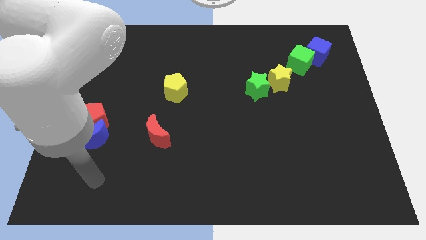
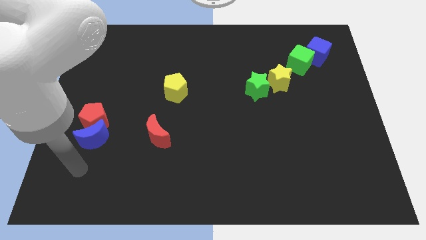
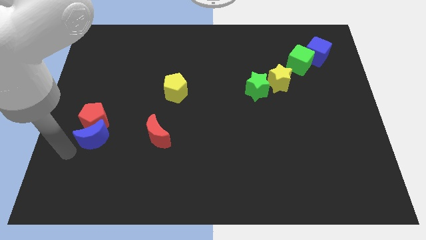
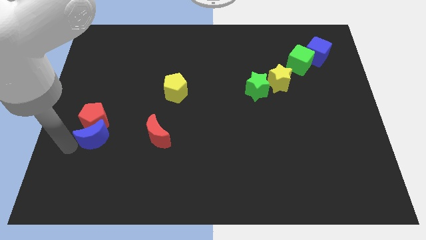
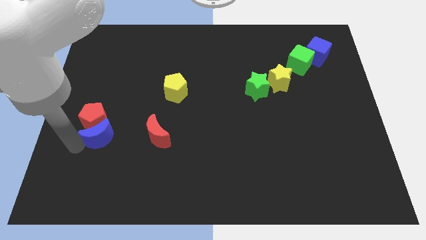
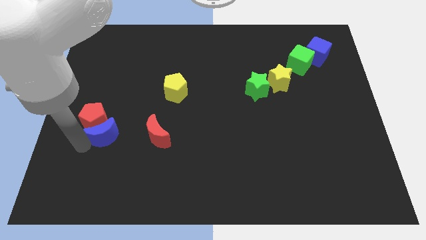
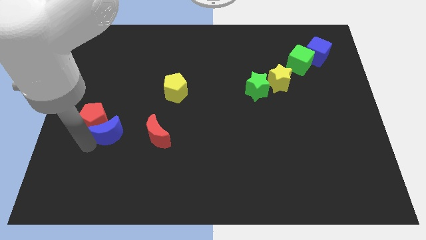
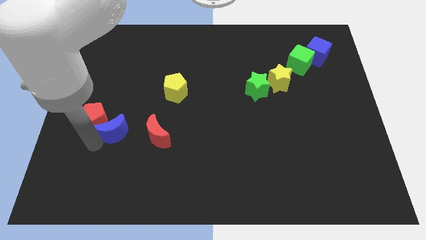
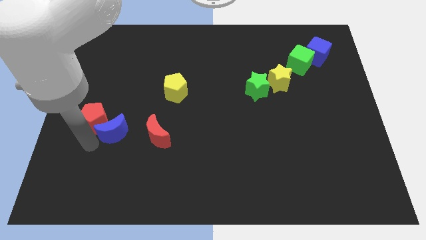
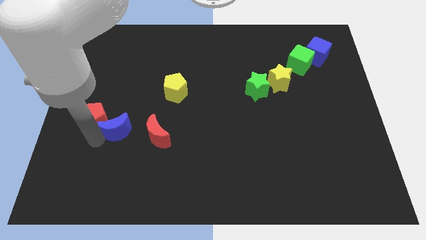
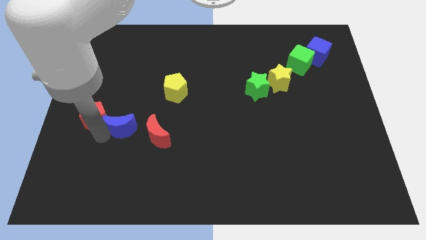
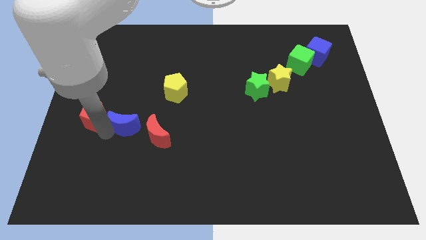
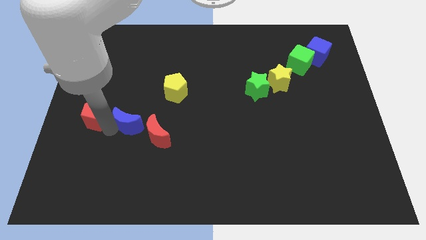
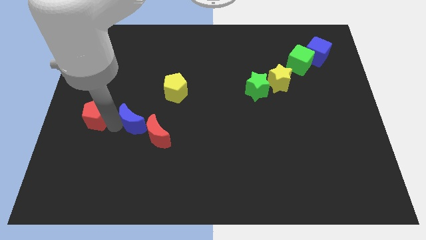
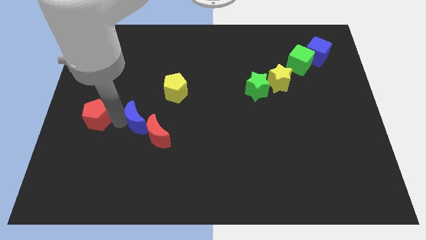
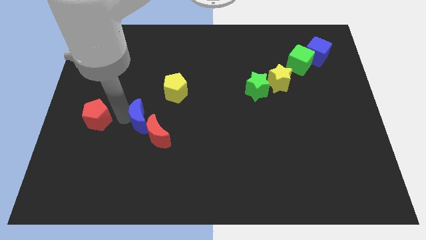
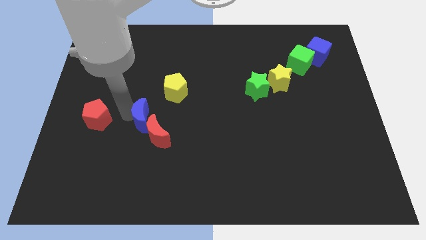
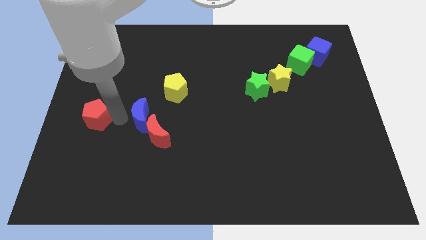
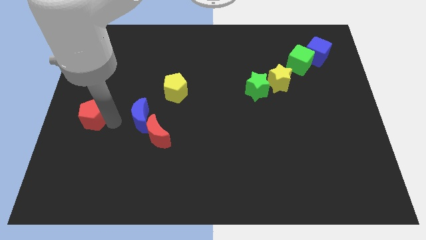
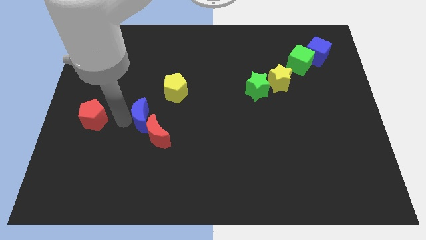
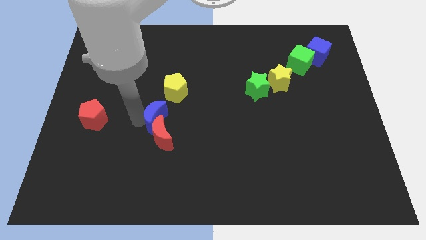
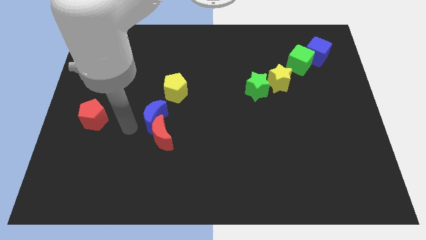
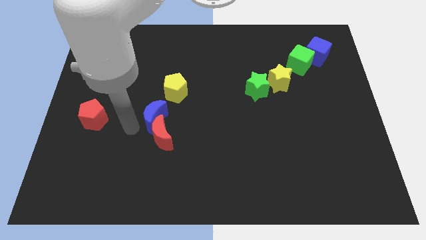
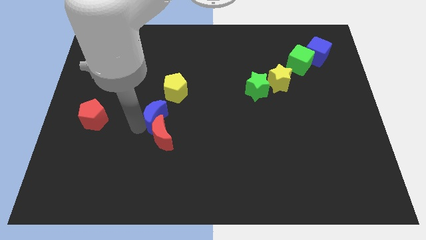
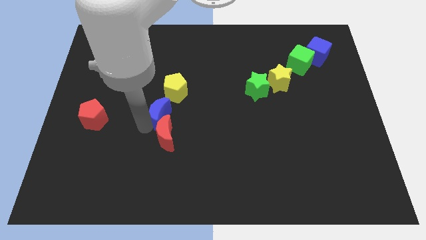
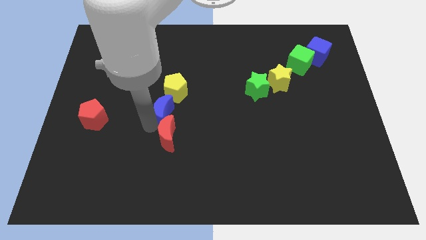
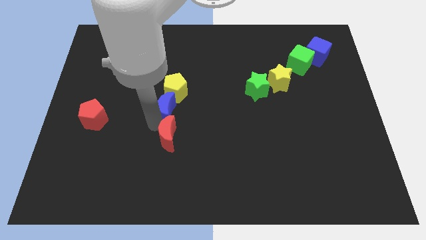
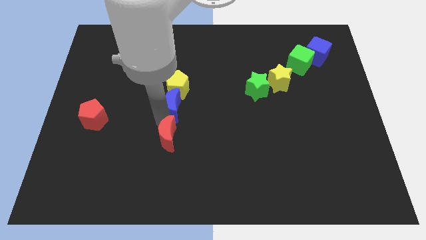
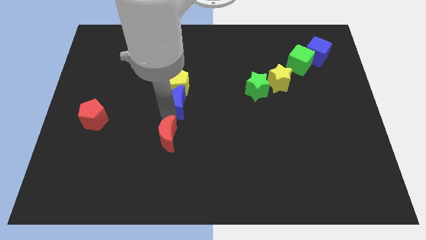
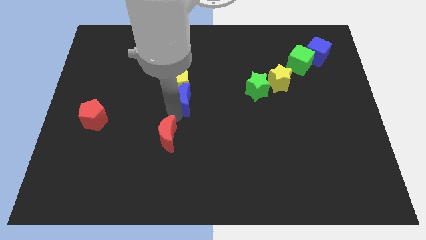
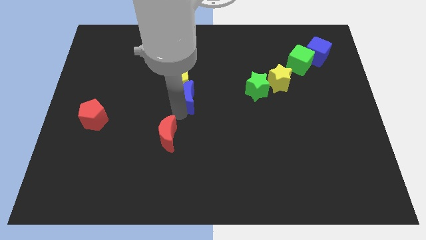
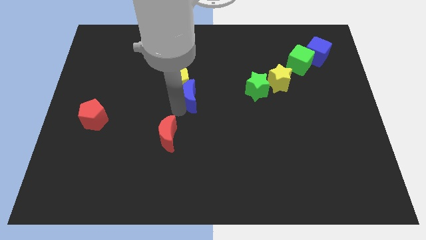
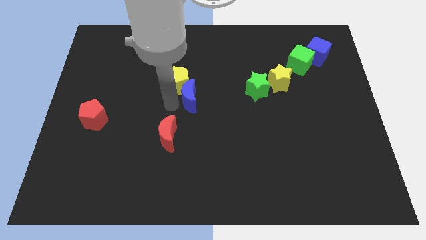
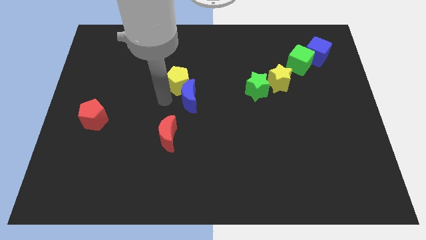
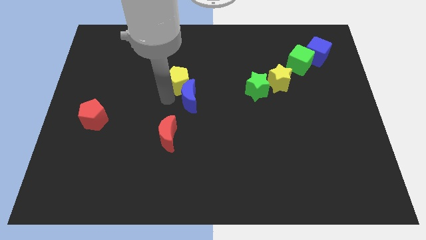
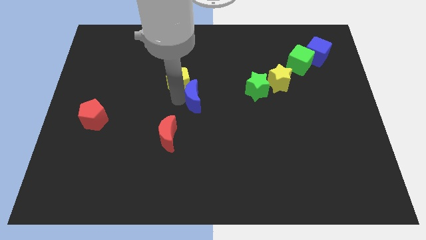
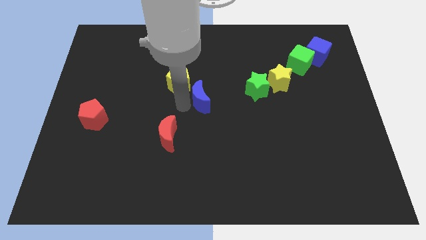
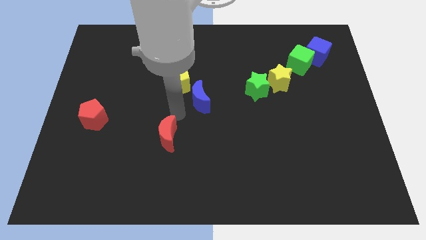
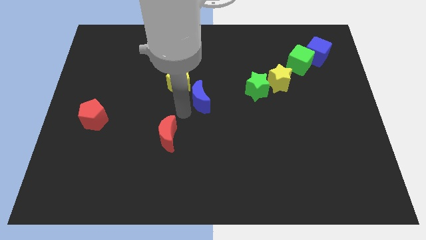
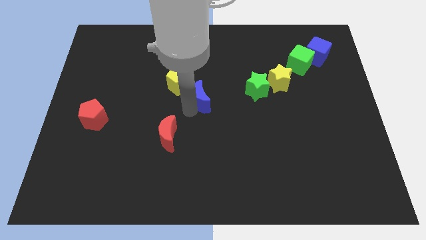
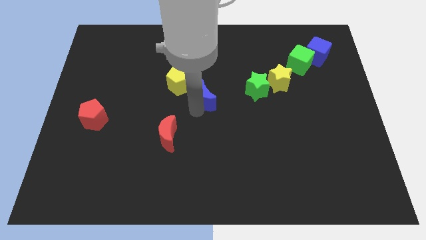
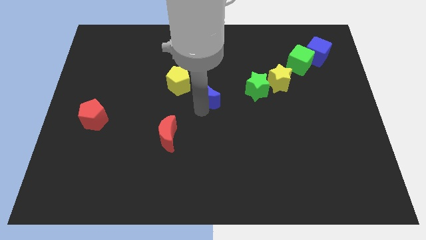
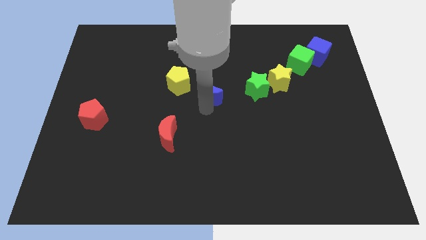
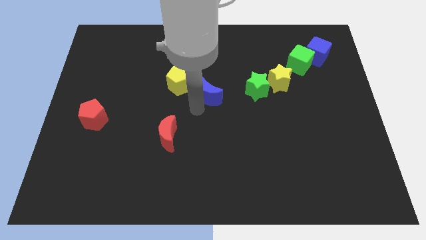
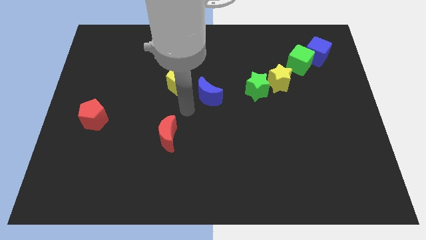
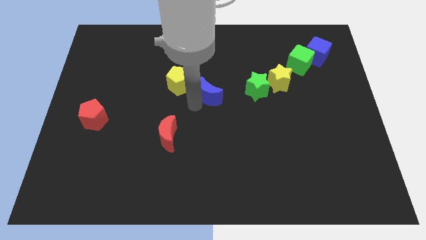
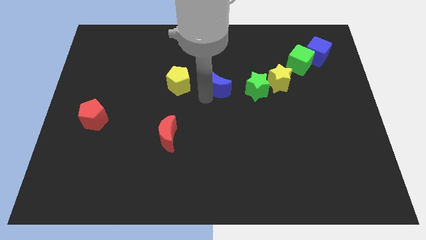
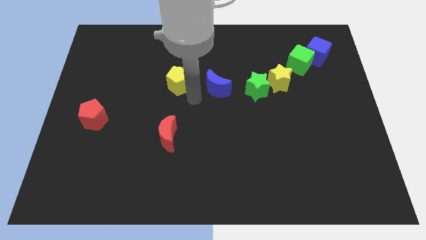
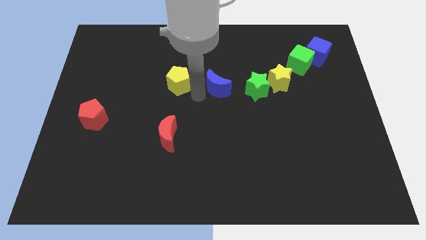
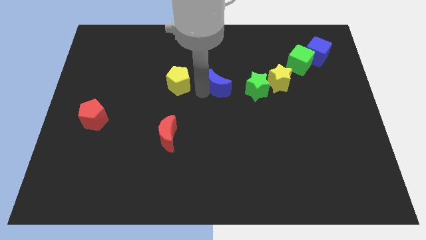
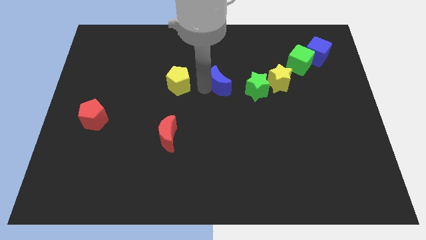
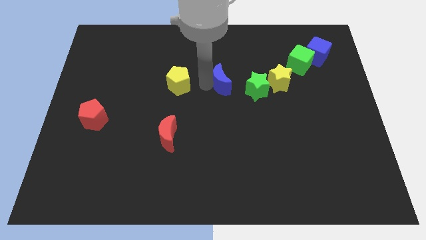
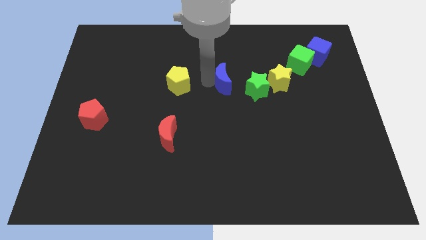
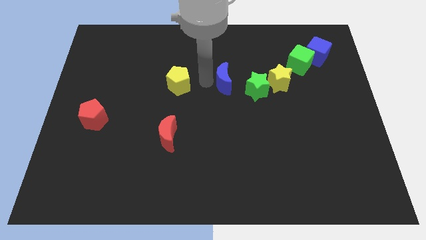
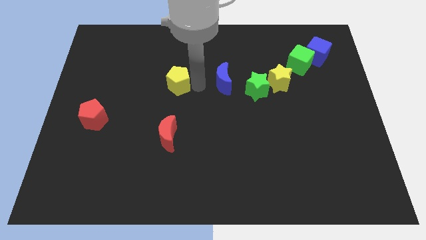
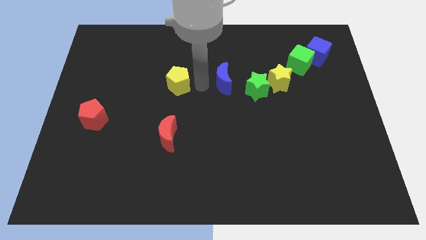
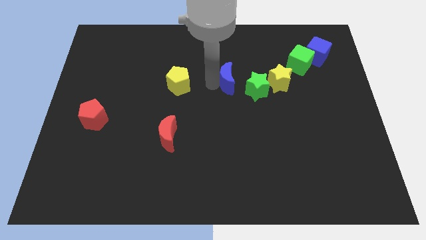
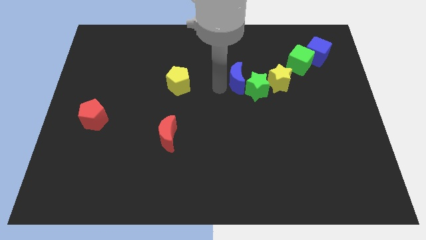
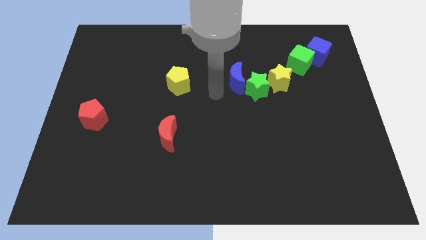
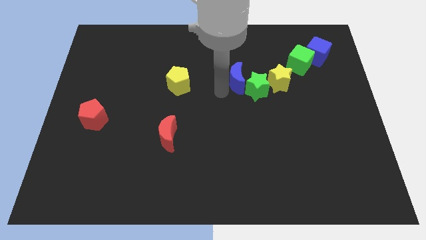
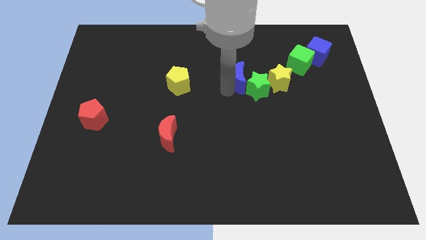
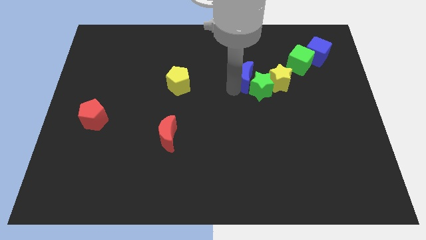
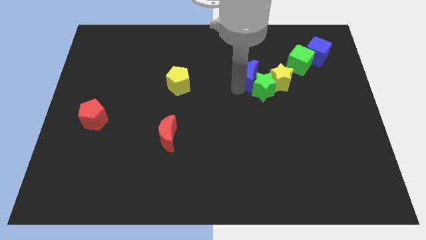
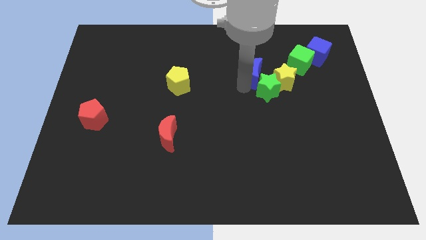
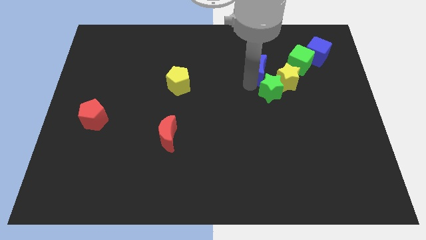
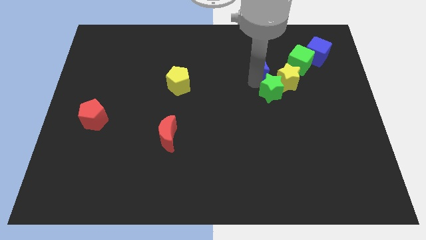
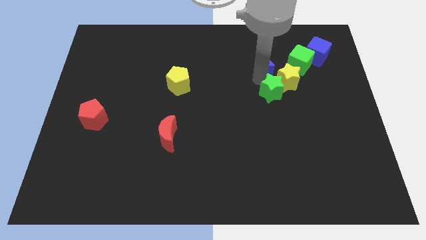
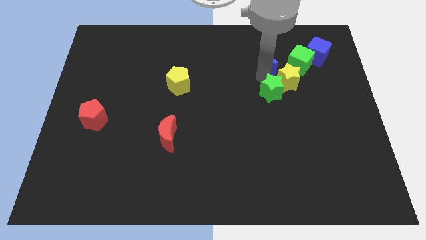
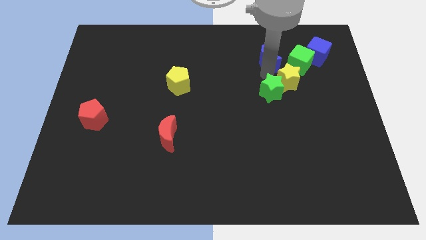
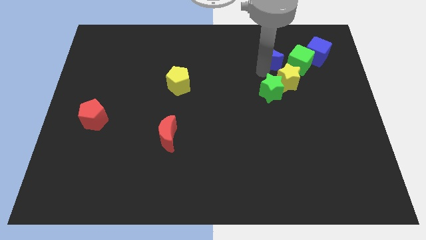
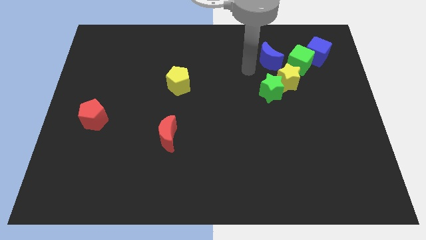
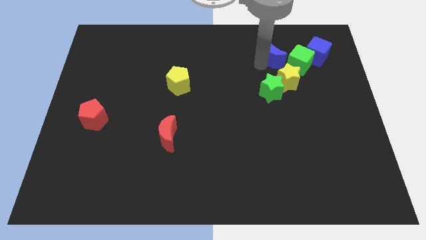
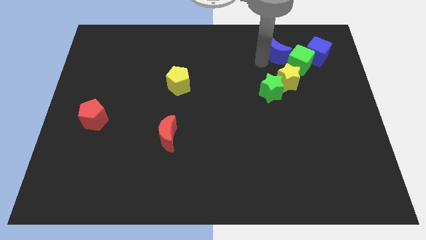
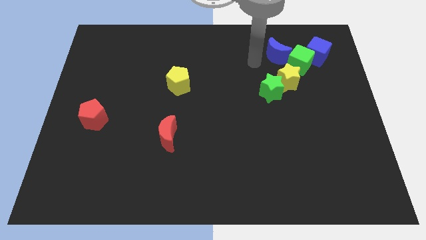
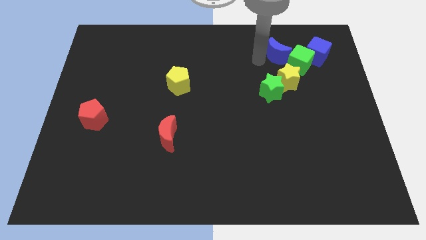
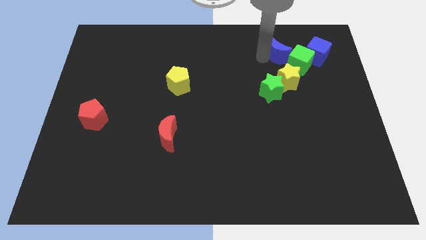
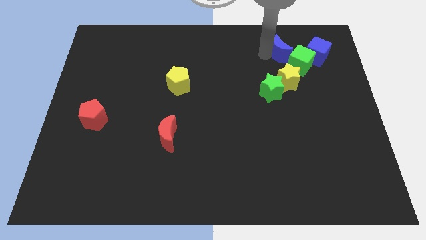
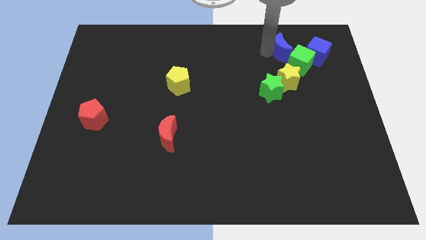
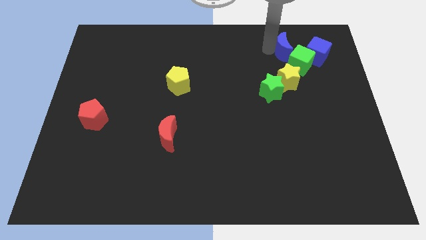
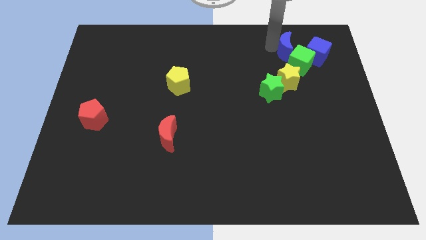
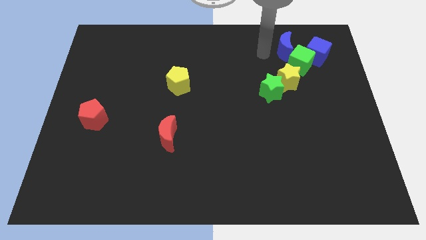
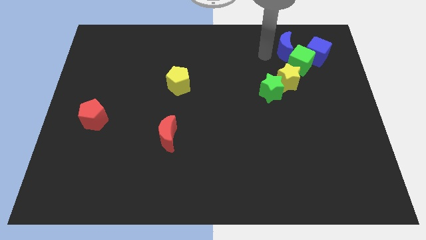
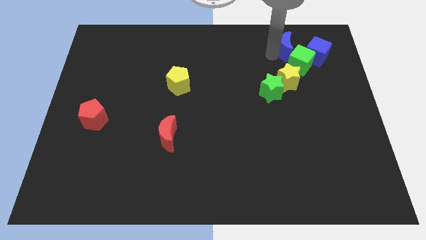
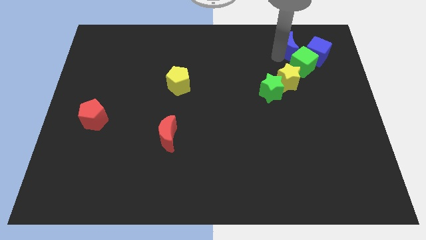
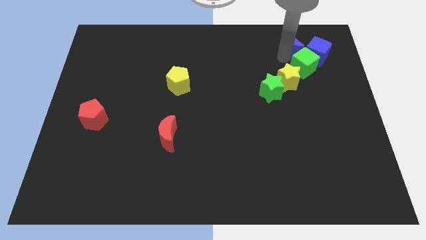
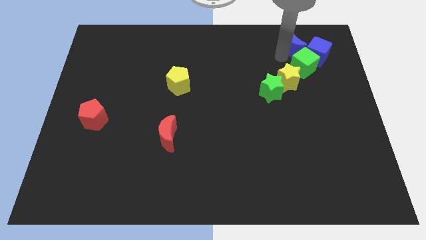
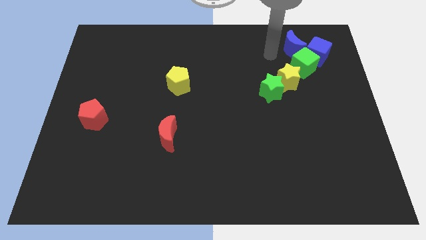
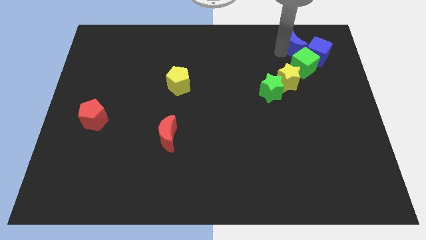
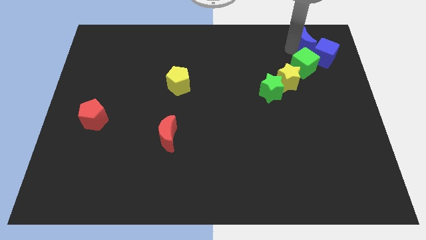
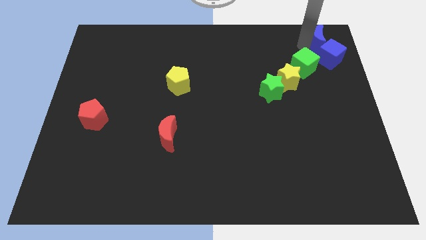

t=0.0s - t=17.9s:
slide the blue moon to the top right
